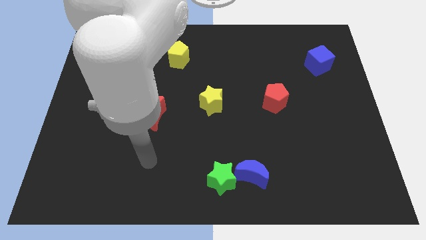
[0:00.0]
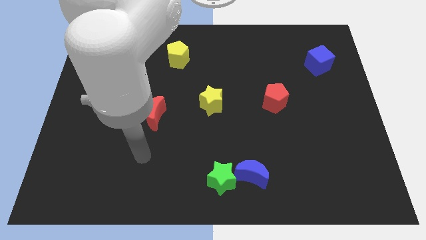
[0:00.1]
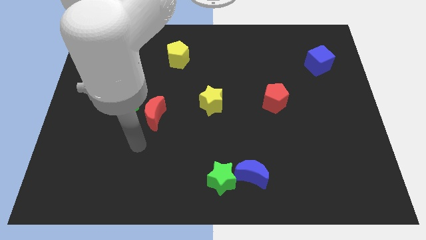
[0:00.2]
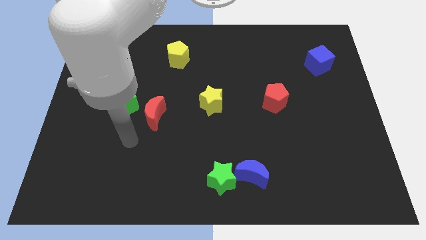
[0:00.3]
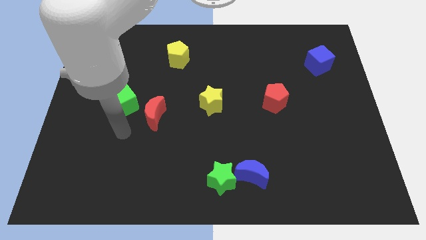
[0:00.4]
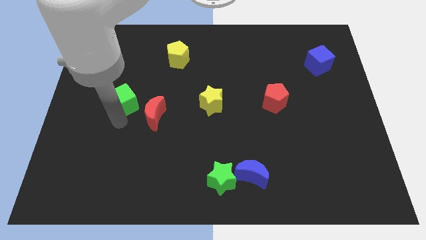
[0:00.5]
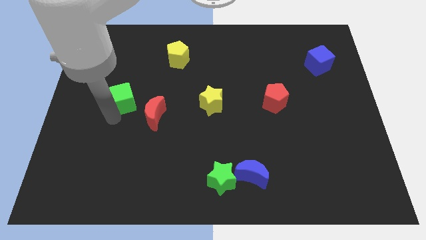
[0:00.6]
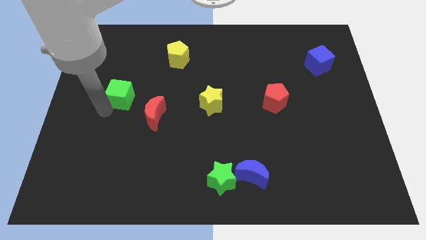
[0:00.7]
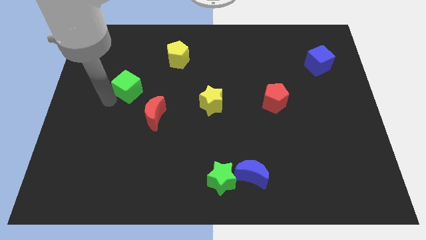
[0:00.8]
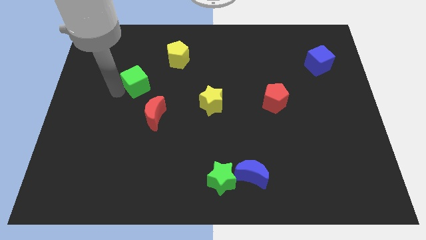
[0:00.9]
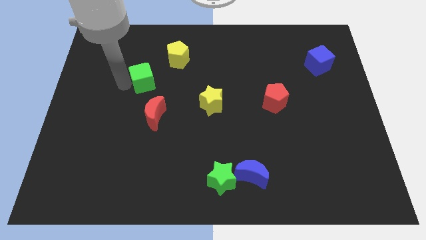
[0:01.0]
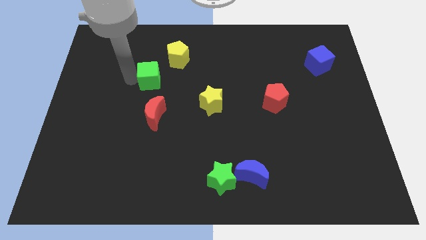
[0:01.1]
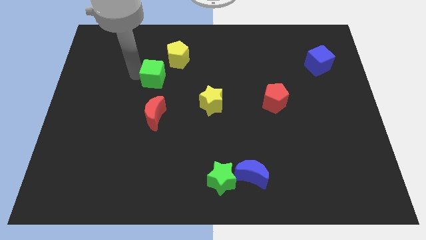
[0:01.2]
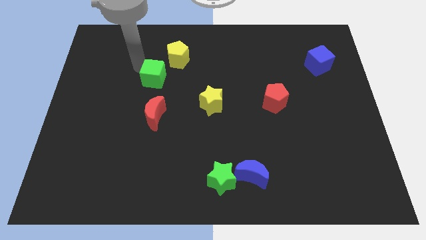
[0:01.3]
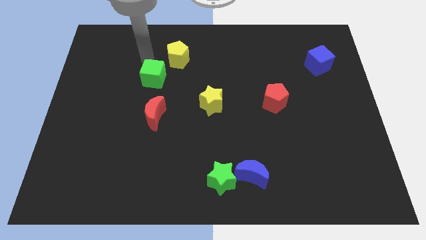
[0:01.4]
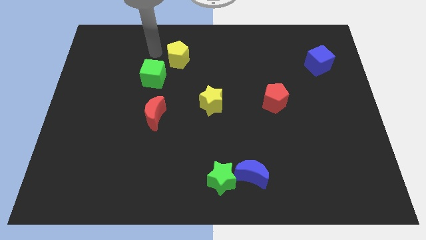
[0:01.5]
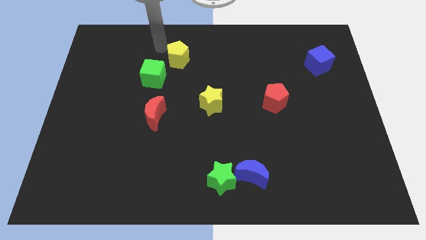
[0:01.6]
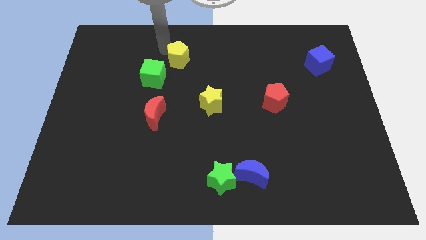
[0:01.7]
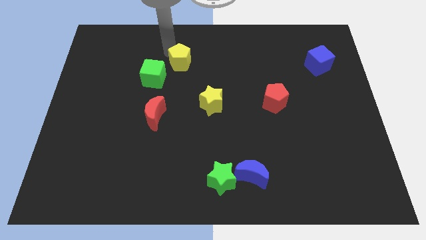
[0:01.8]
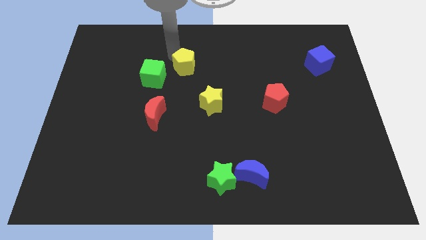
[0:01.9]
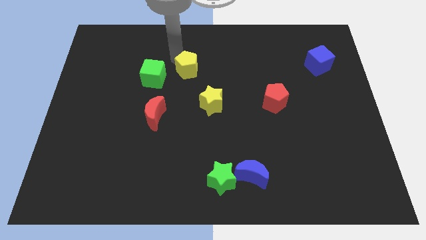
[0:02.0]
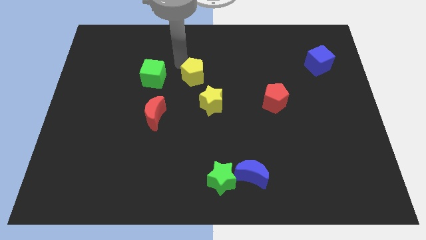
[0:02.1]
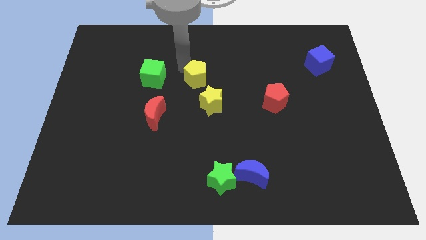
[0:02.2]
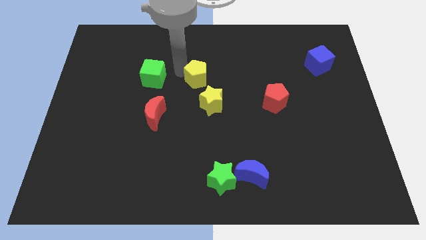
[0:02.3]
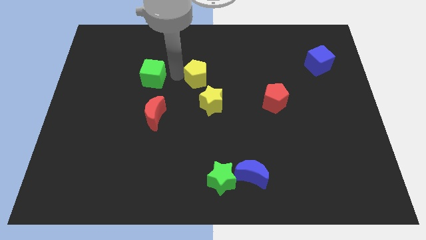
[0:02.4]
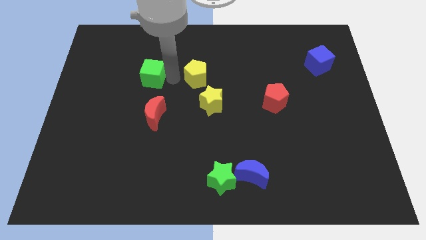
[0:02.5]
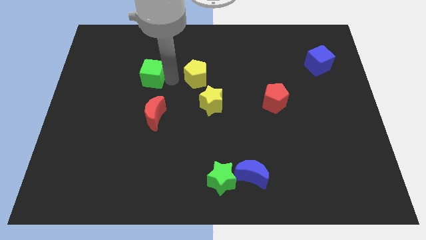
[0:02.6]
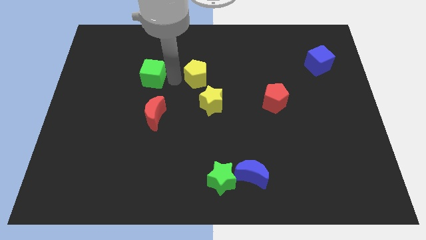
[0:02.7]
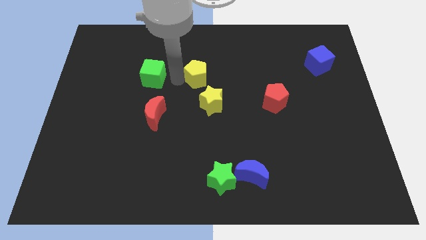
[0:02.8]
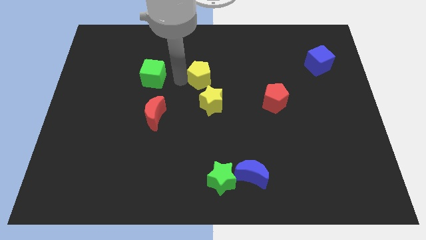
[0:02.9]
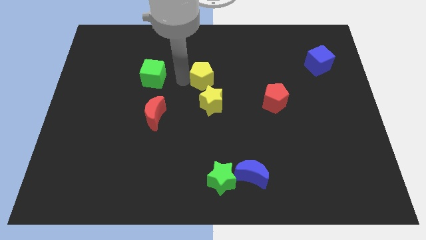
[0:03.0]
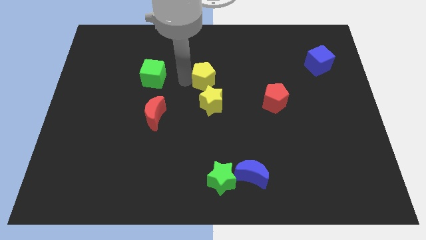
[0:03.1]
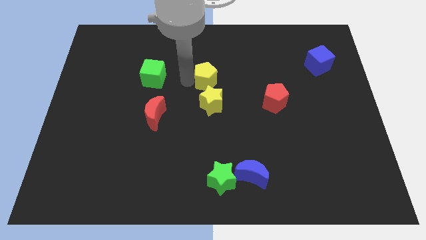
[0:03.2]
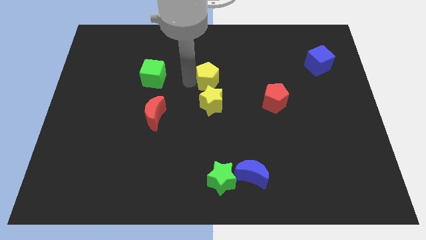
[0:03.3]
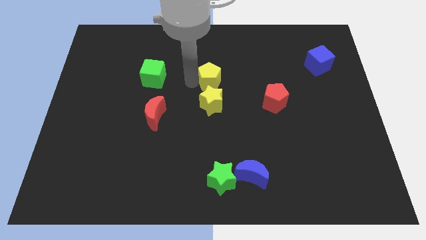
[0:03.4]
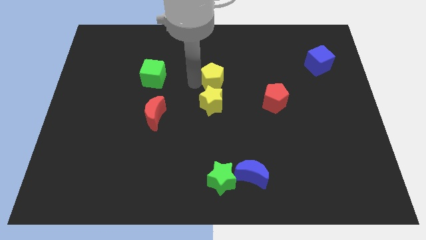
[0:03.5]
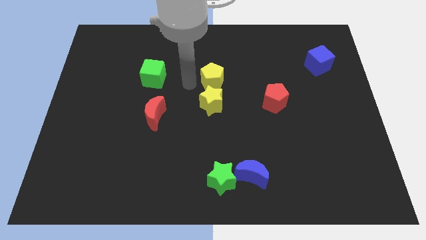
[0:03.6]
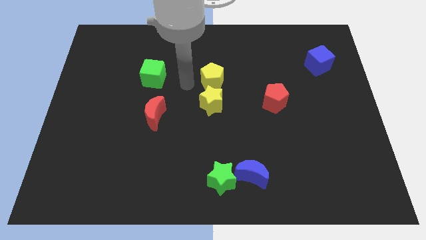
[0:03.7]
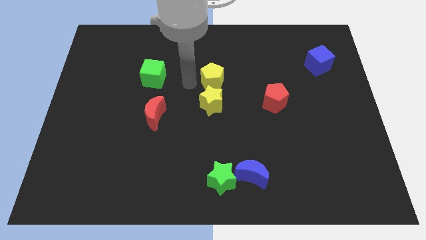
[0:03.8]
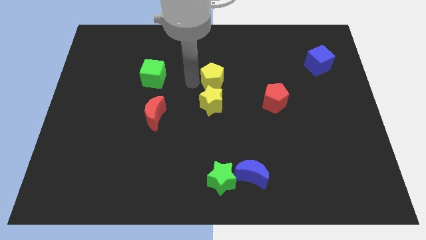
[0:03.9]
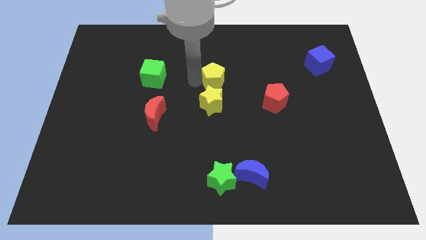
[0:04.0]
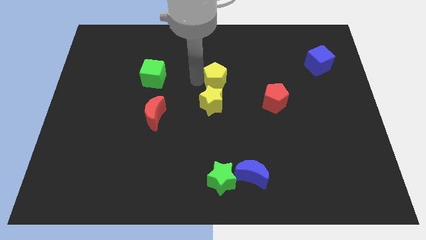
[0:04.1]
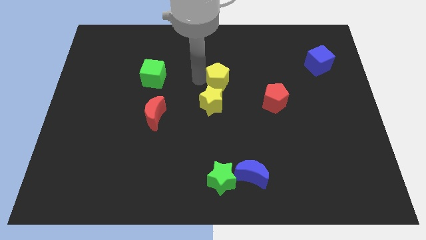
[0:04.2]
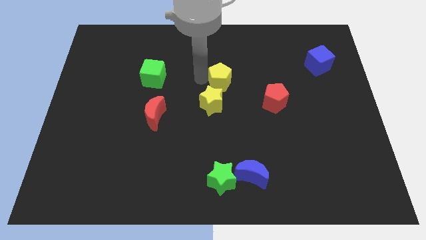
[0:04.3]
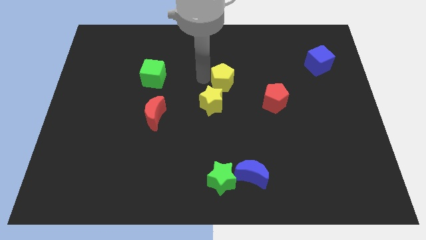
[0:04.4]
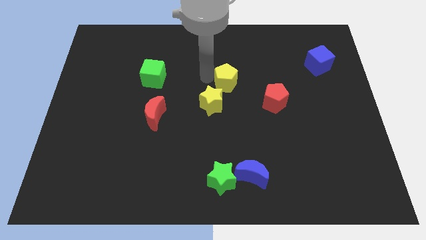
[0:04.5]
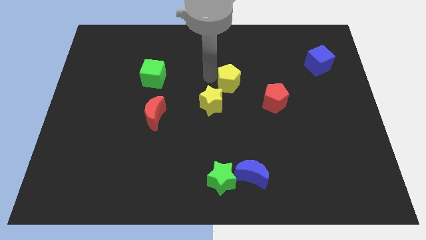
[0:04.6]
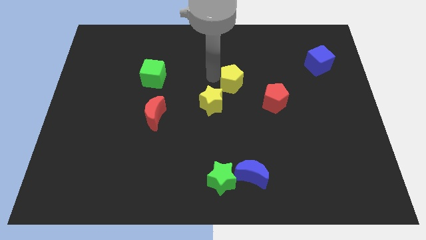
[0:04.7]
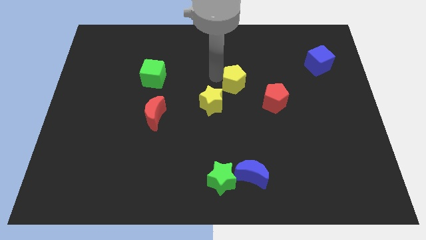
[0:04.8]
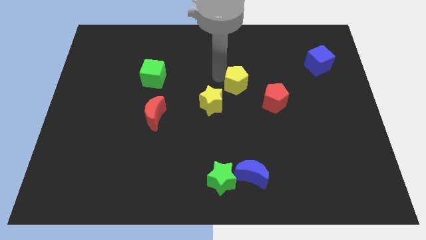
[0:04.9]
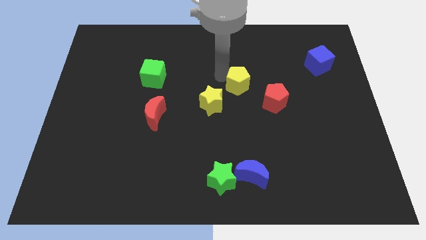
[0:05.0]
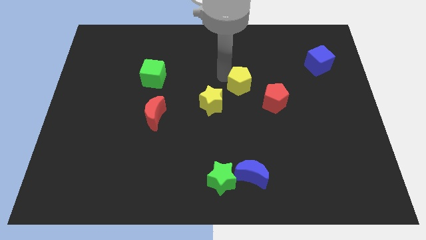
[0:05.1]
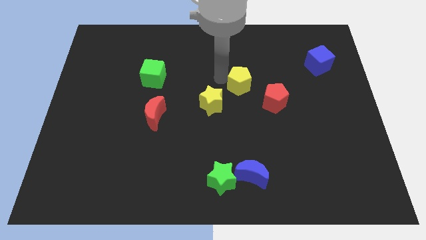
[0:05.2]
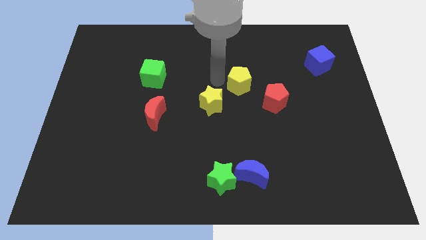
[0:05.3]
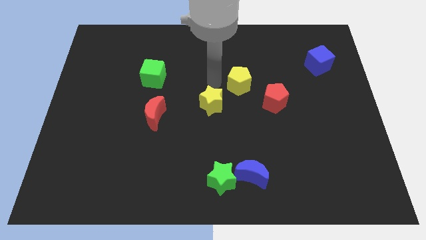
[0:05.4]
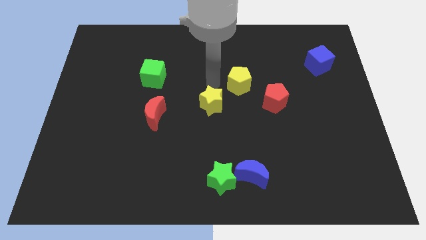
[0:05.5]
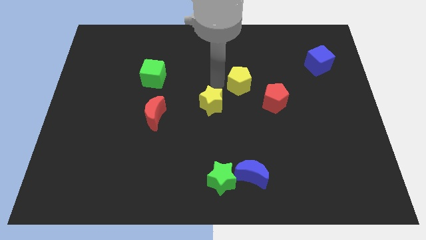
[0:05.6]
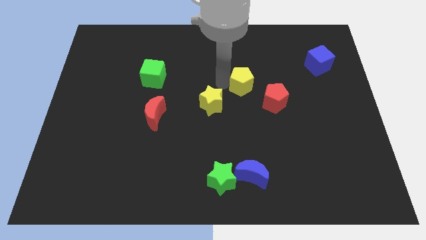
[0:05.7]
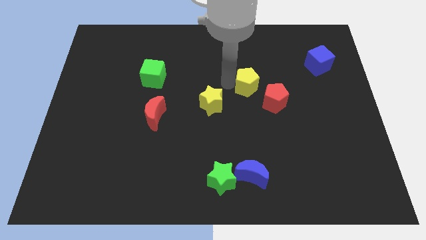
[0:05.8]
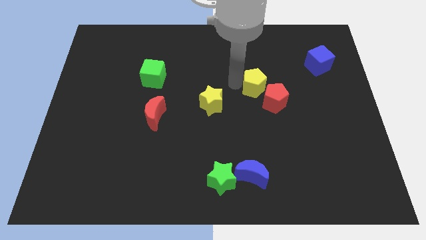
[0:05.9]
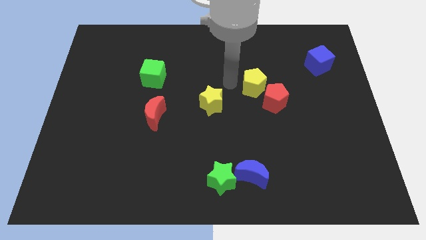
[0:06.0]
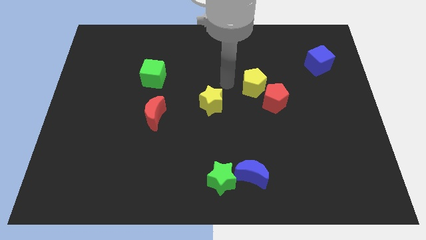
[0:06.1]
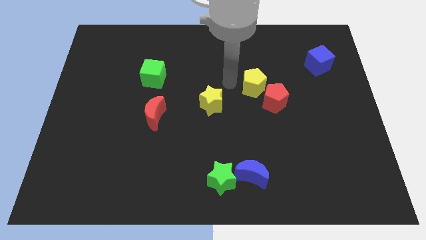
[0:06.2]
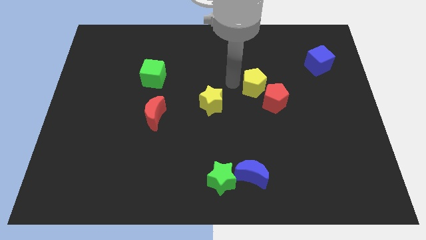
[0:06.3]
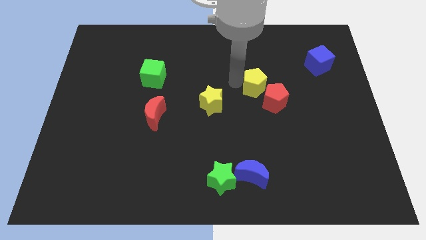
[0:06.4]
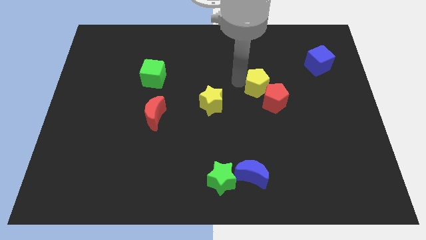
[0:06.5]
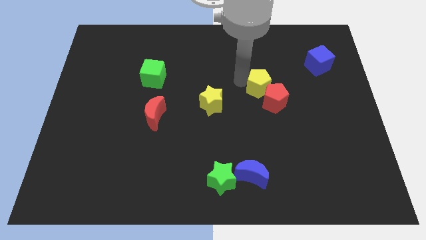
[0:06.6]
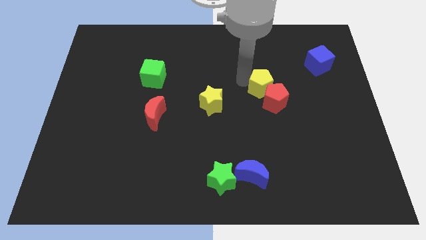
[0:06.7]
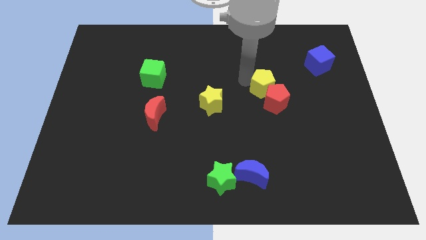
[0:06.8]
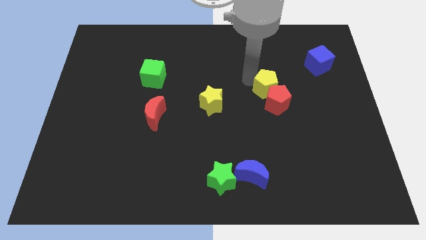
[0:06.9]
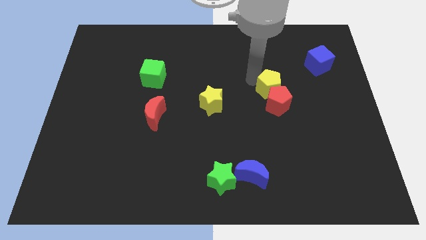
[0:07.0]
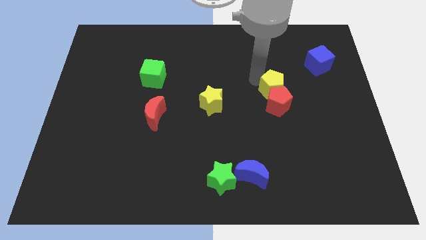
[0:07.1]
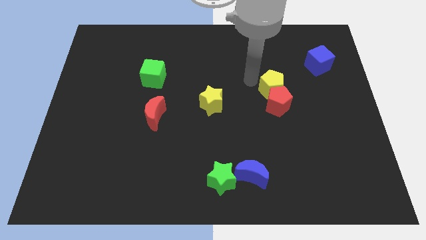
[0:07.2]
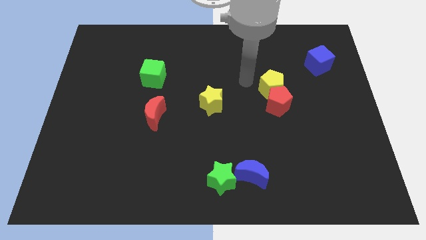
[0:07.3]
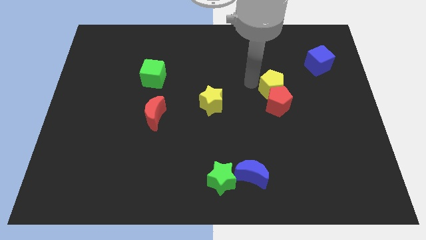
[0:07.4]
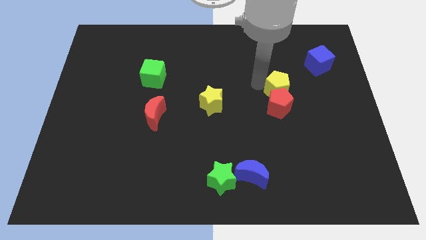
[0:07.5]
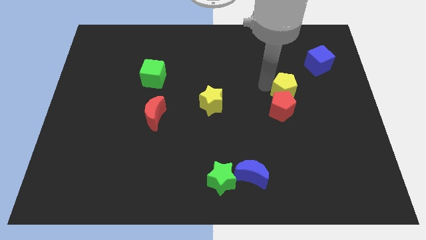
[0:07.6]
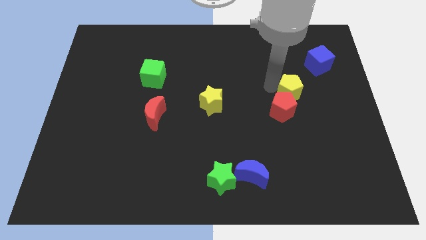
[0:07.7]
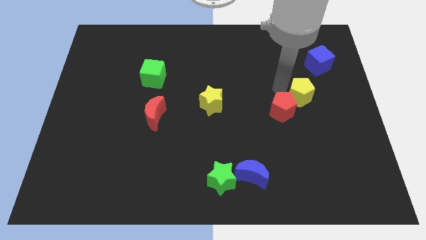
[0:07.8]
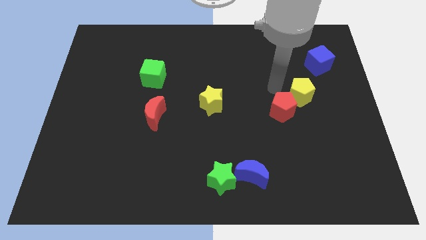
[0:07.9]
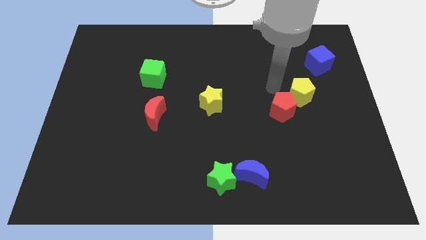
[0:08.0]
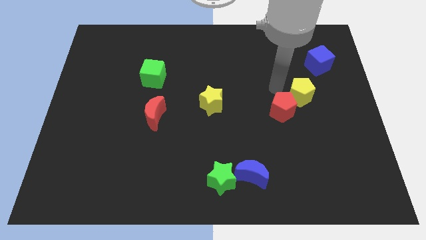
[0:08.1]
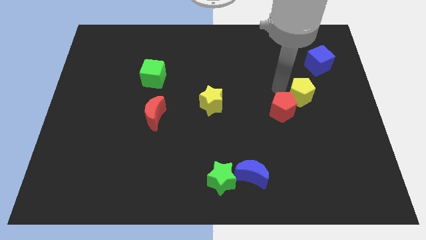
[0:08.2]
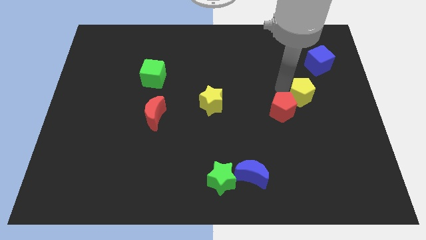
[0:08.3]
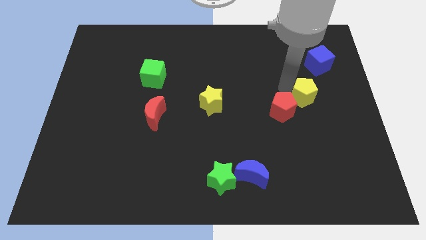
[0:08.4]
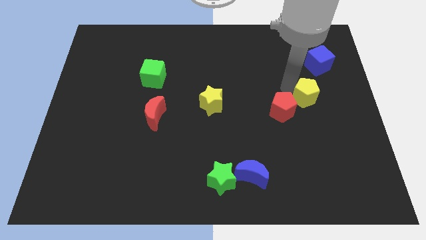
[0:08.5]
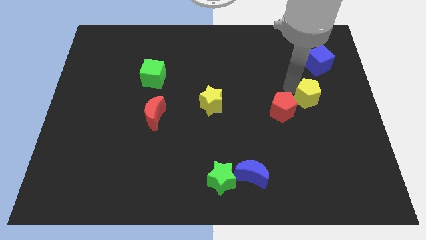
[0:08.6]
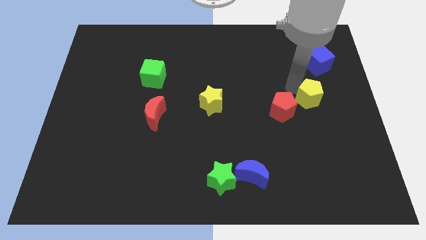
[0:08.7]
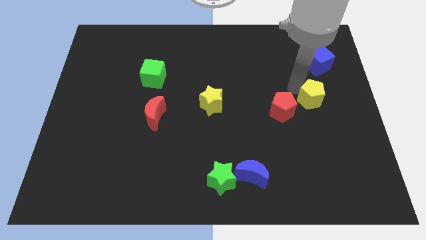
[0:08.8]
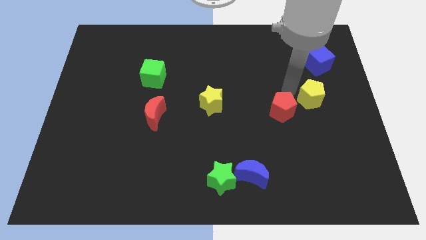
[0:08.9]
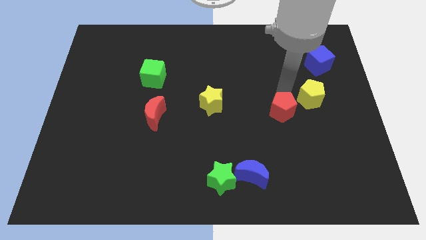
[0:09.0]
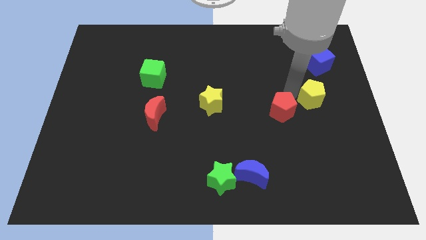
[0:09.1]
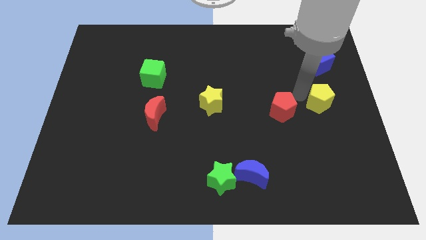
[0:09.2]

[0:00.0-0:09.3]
slide the yellow pentagon to the center right
